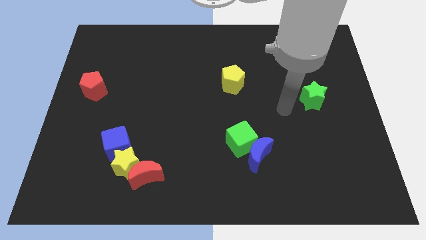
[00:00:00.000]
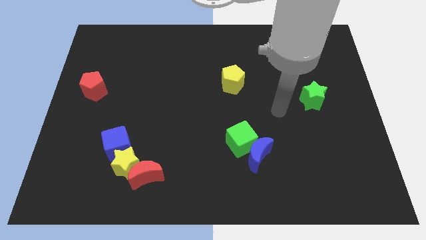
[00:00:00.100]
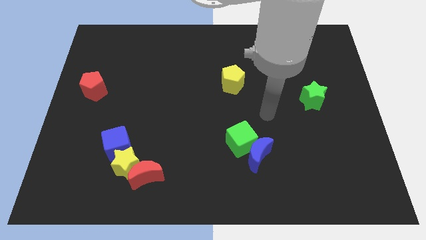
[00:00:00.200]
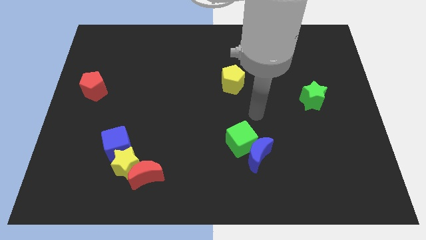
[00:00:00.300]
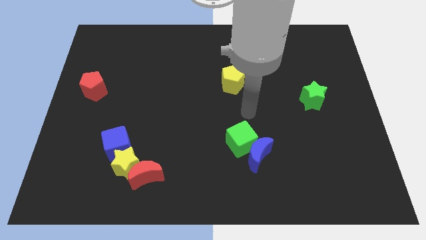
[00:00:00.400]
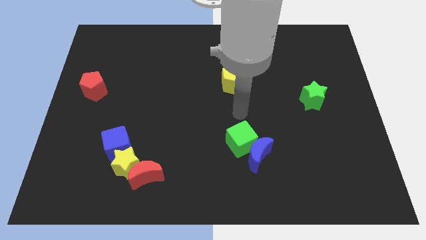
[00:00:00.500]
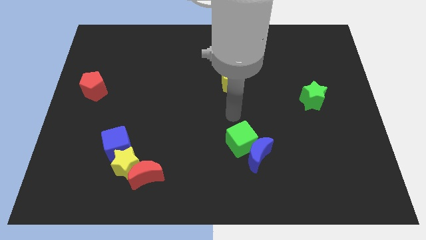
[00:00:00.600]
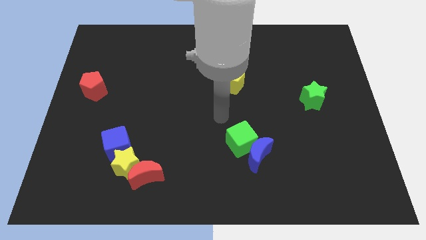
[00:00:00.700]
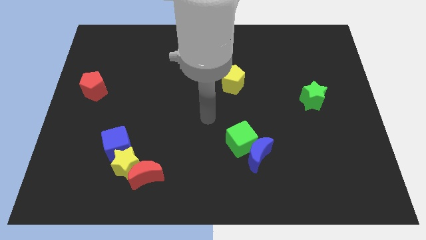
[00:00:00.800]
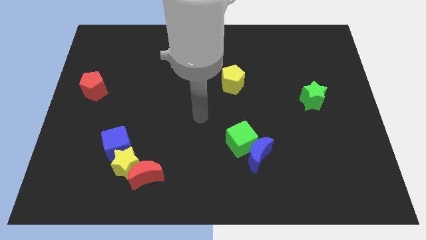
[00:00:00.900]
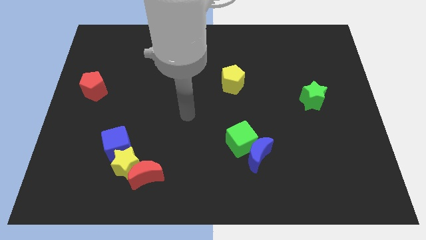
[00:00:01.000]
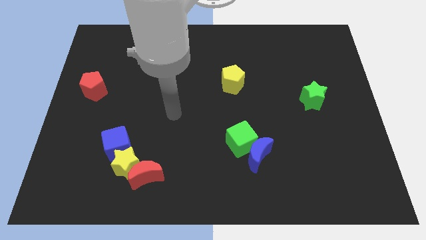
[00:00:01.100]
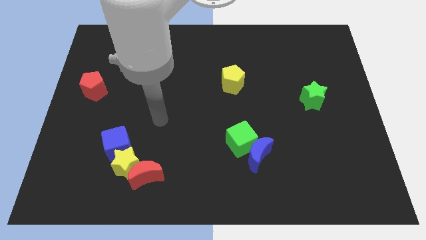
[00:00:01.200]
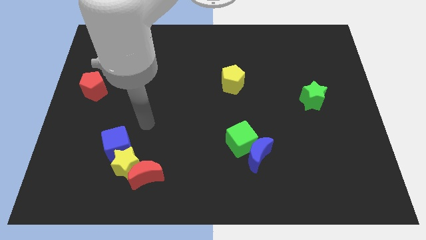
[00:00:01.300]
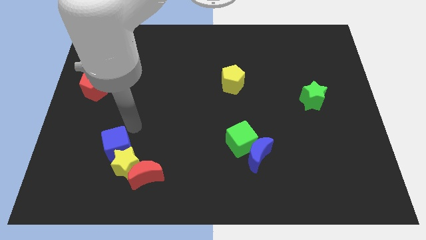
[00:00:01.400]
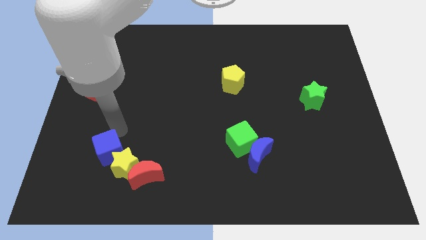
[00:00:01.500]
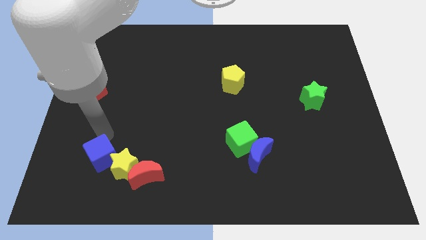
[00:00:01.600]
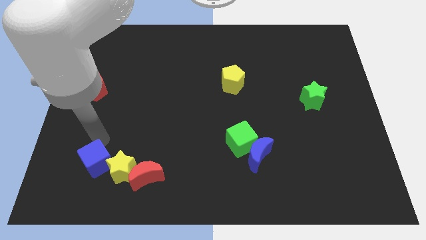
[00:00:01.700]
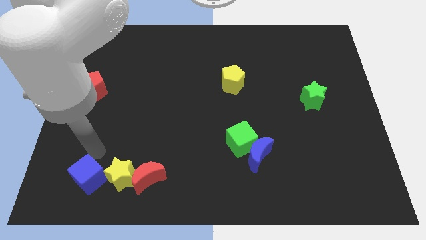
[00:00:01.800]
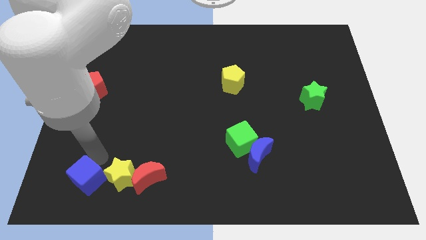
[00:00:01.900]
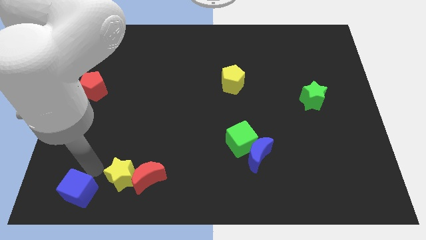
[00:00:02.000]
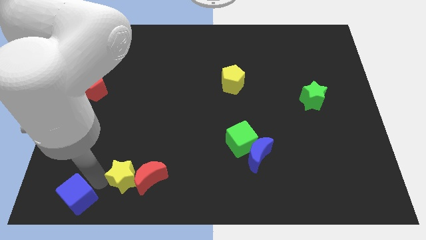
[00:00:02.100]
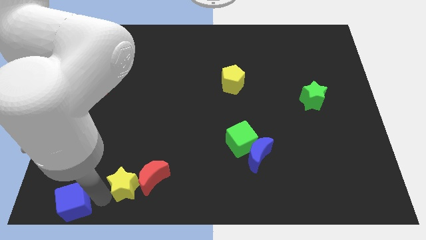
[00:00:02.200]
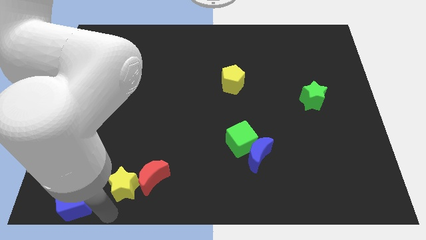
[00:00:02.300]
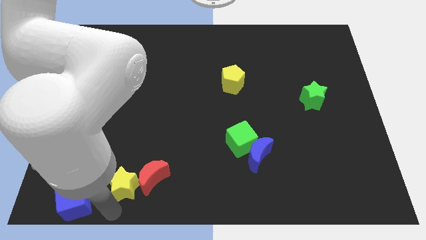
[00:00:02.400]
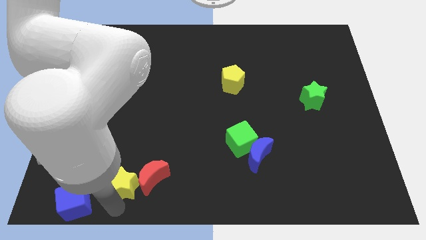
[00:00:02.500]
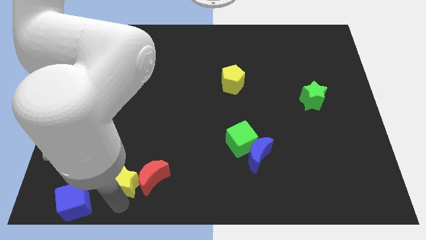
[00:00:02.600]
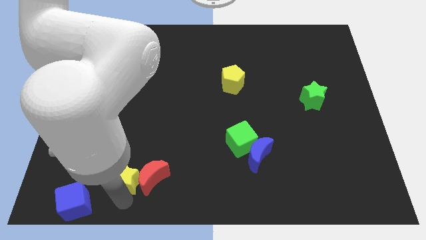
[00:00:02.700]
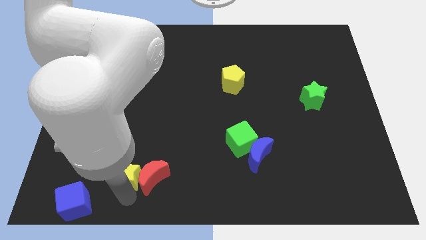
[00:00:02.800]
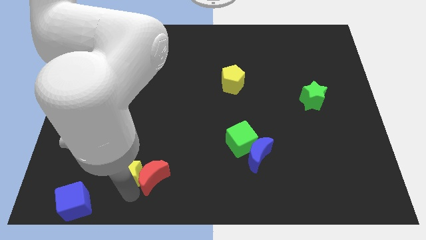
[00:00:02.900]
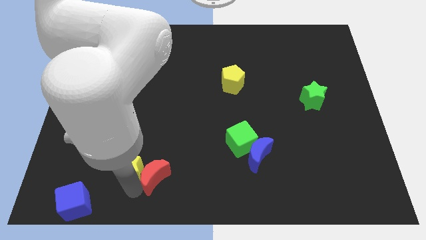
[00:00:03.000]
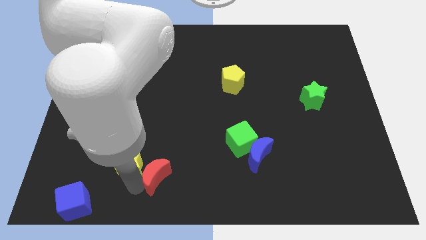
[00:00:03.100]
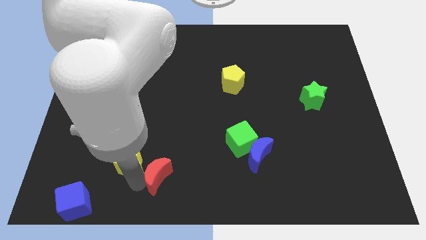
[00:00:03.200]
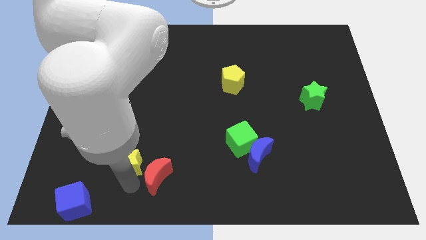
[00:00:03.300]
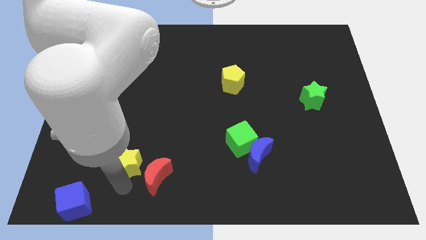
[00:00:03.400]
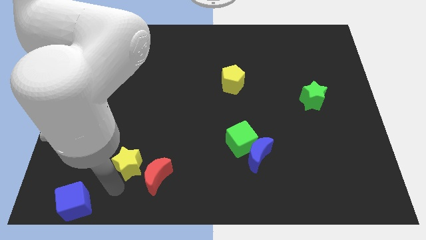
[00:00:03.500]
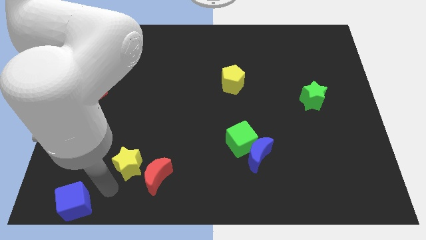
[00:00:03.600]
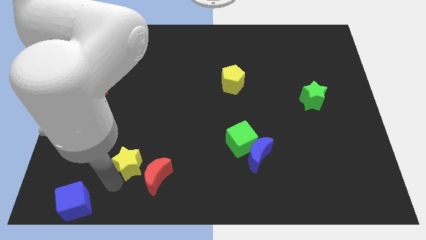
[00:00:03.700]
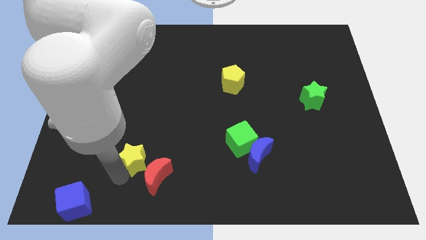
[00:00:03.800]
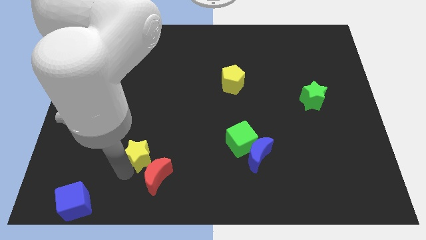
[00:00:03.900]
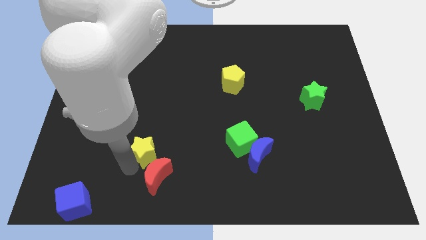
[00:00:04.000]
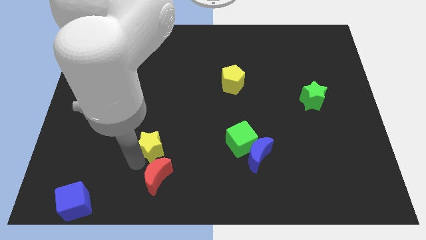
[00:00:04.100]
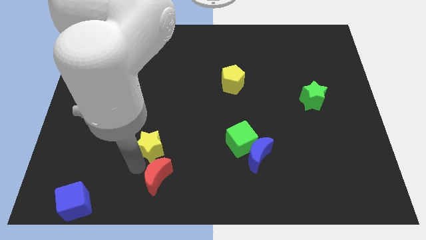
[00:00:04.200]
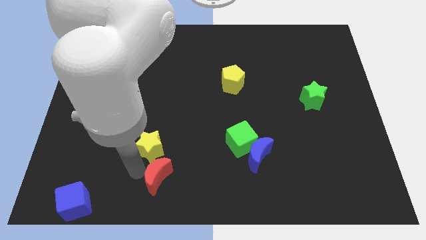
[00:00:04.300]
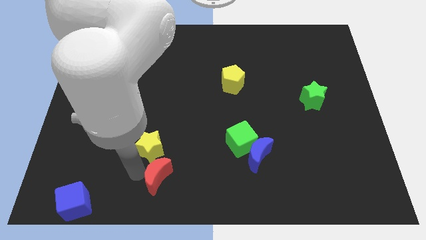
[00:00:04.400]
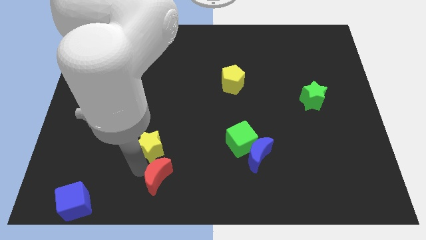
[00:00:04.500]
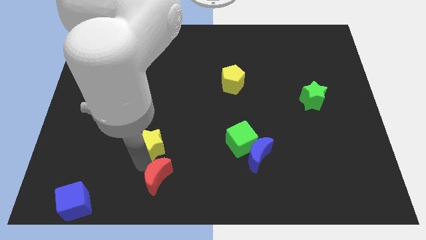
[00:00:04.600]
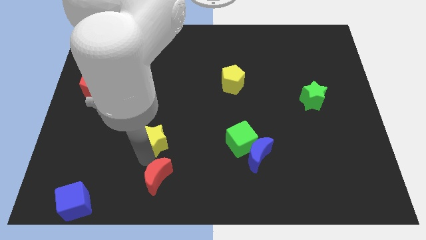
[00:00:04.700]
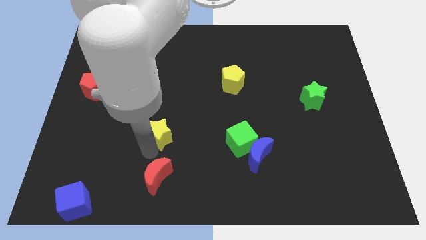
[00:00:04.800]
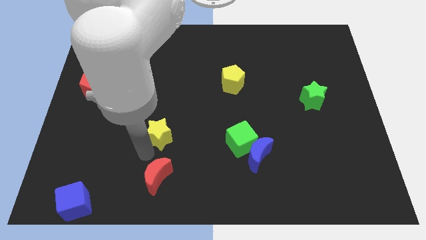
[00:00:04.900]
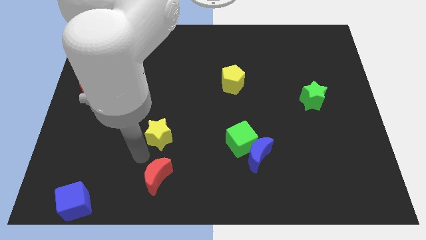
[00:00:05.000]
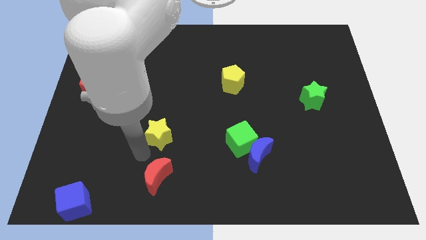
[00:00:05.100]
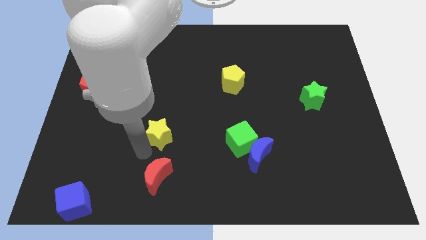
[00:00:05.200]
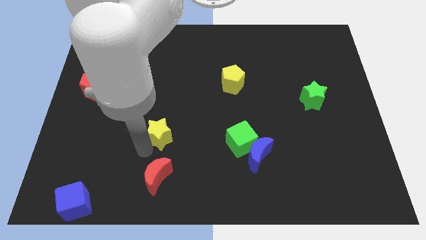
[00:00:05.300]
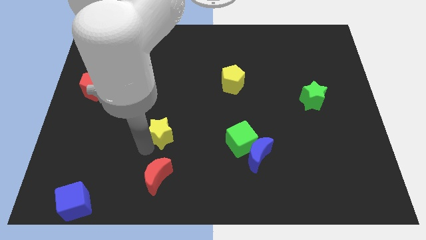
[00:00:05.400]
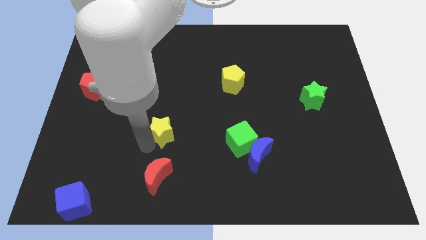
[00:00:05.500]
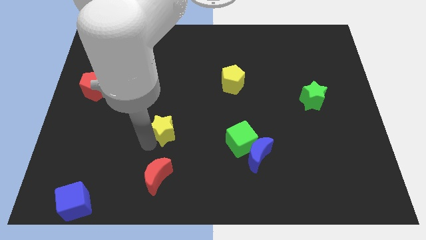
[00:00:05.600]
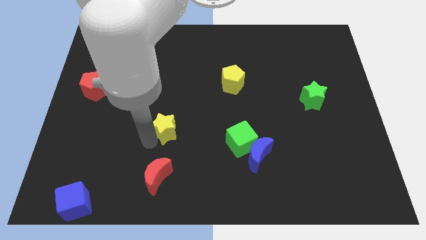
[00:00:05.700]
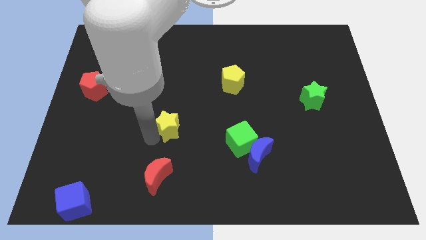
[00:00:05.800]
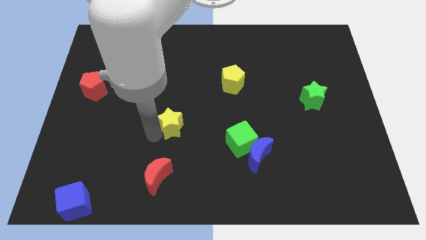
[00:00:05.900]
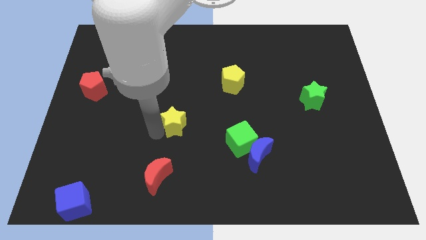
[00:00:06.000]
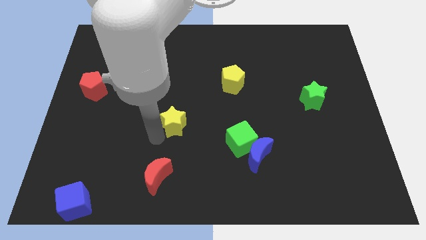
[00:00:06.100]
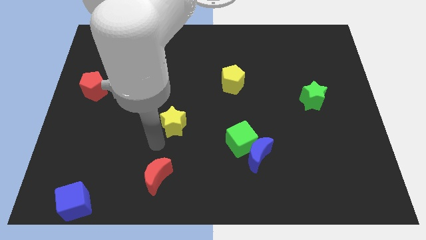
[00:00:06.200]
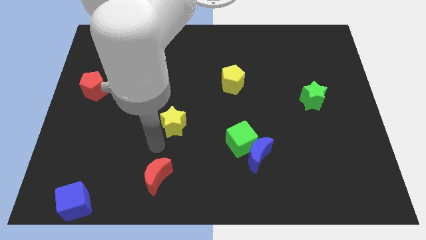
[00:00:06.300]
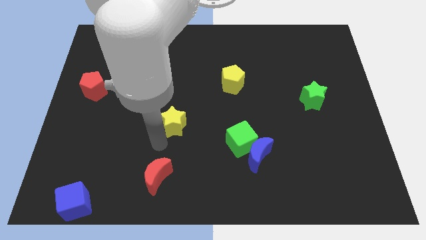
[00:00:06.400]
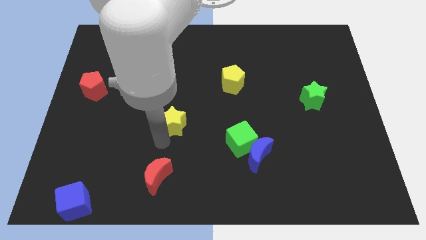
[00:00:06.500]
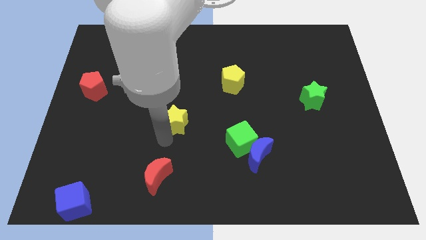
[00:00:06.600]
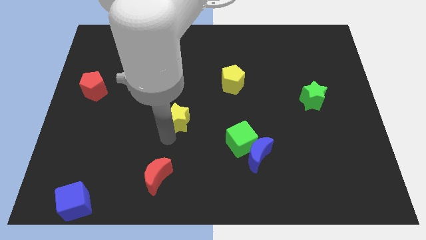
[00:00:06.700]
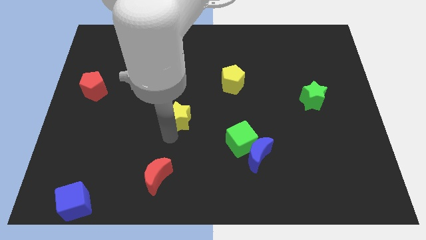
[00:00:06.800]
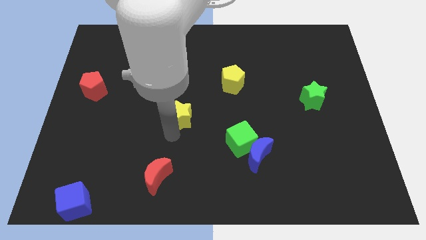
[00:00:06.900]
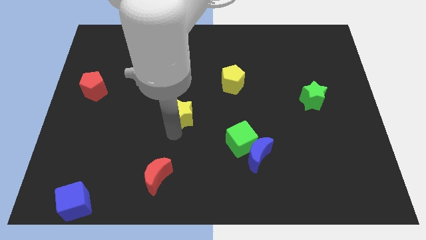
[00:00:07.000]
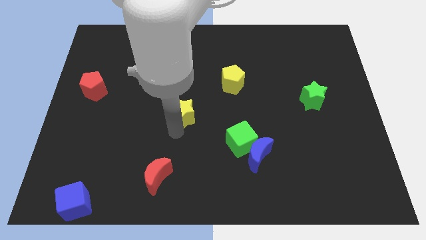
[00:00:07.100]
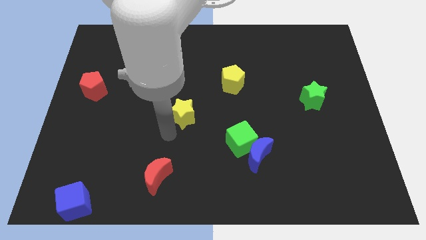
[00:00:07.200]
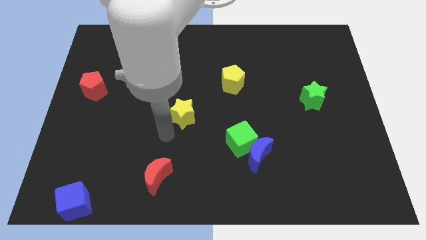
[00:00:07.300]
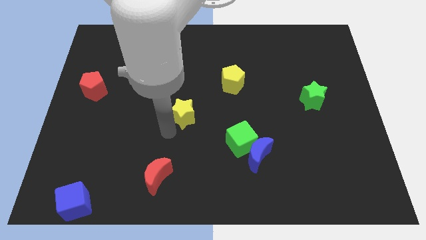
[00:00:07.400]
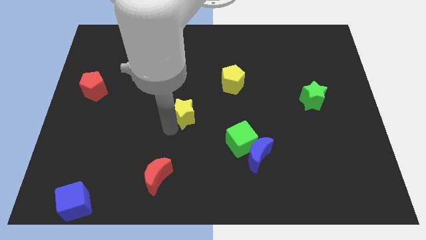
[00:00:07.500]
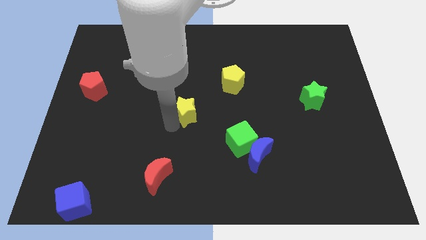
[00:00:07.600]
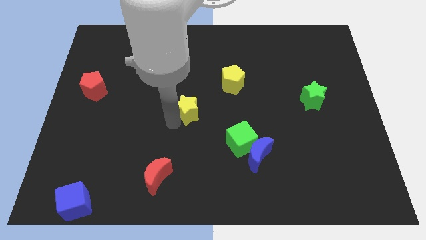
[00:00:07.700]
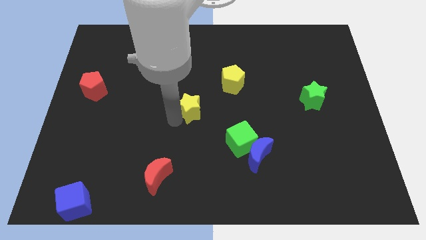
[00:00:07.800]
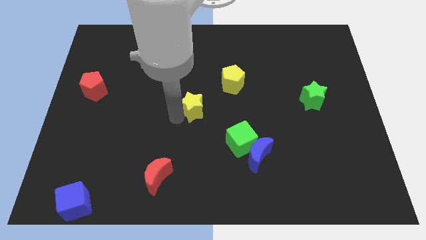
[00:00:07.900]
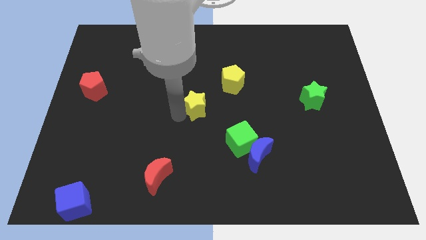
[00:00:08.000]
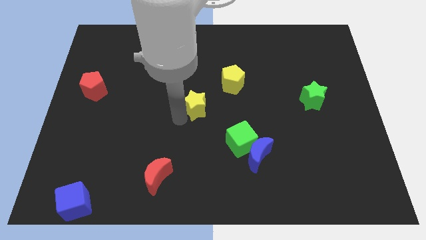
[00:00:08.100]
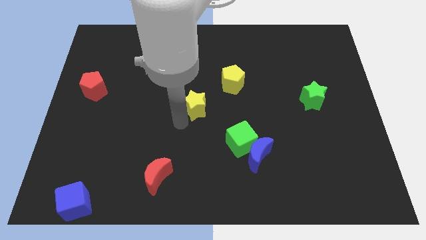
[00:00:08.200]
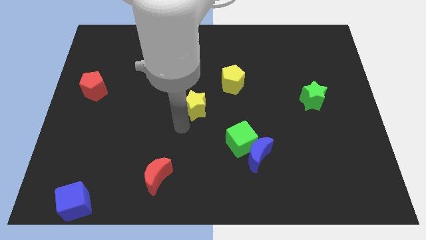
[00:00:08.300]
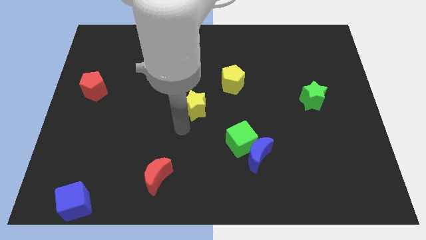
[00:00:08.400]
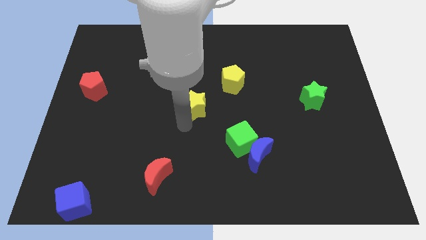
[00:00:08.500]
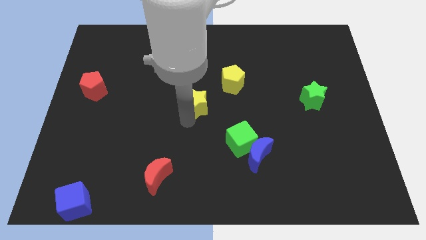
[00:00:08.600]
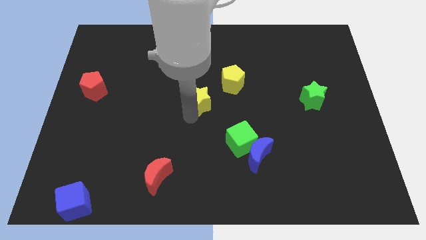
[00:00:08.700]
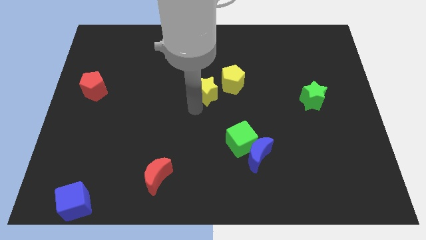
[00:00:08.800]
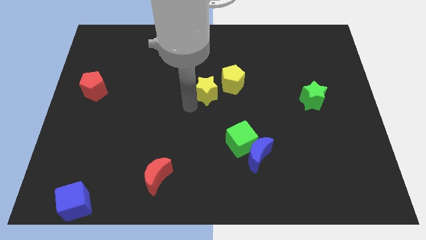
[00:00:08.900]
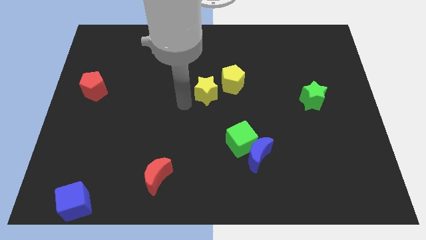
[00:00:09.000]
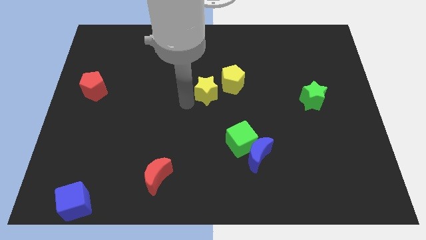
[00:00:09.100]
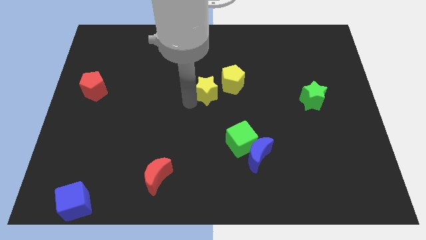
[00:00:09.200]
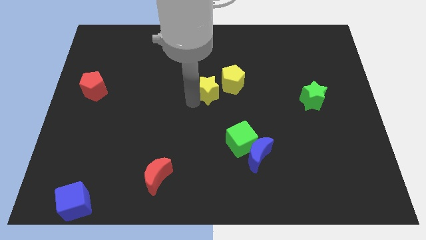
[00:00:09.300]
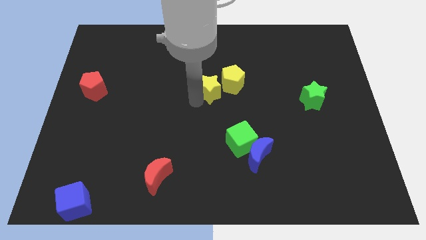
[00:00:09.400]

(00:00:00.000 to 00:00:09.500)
put the yellow star towards the yellow pentagon
